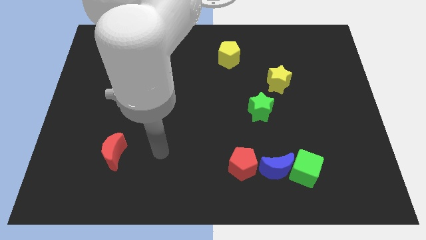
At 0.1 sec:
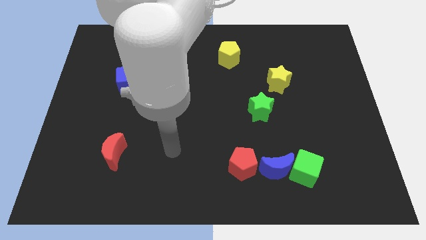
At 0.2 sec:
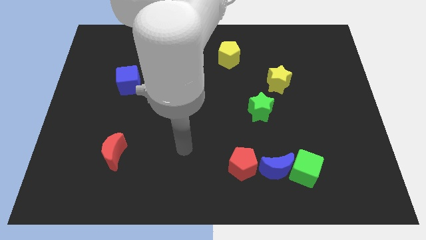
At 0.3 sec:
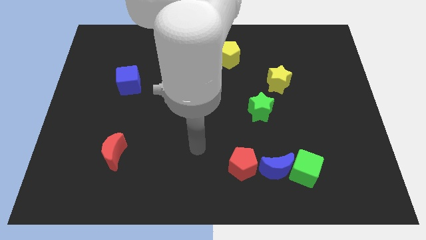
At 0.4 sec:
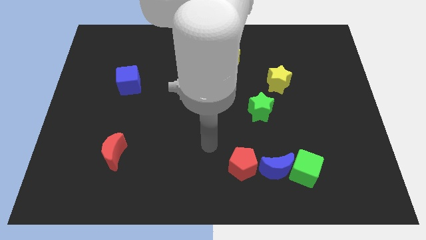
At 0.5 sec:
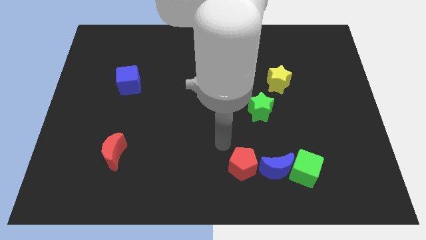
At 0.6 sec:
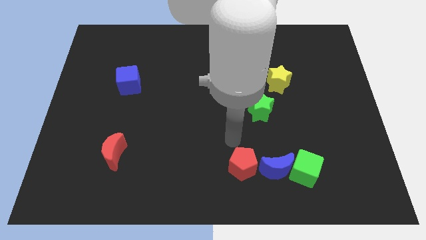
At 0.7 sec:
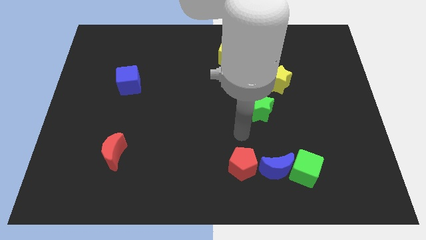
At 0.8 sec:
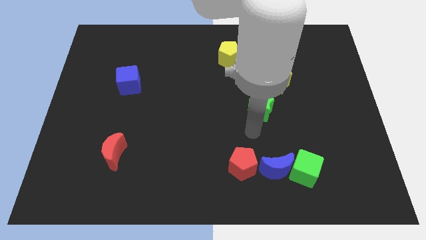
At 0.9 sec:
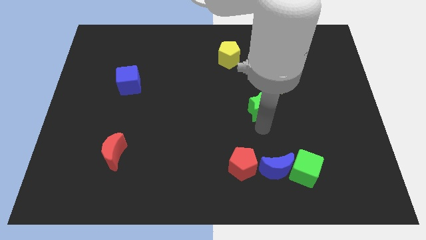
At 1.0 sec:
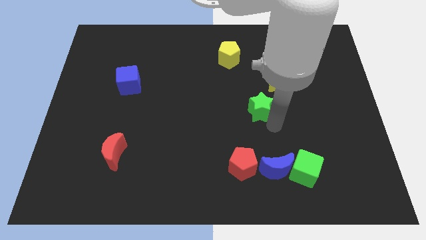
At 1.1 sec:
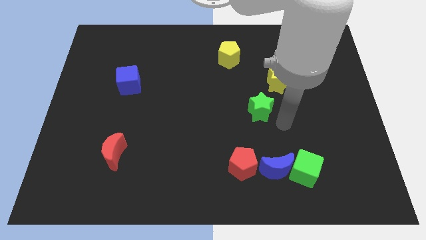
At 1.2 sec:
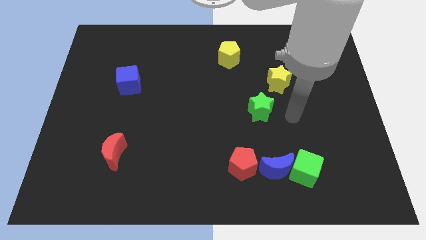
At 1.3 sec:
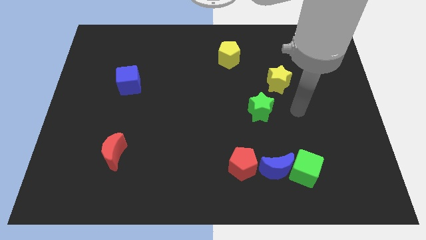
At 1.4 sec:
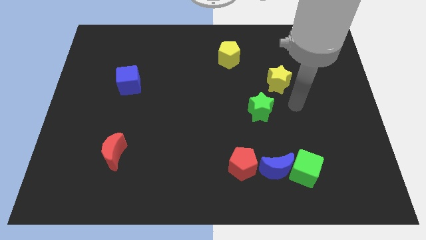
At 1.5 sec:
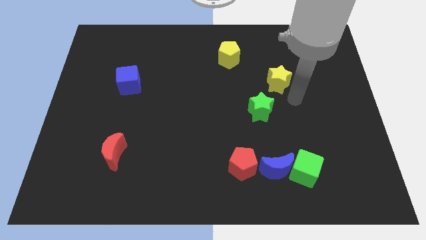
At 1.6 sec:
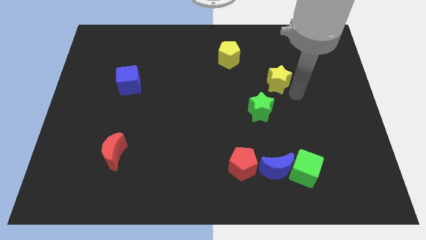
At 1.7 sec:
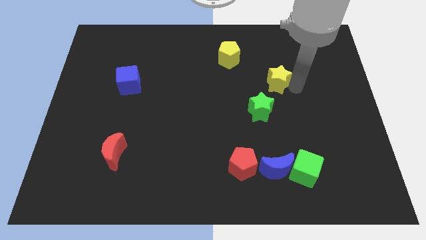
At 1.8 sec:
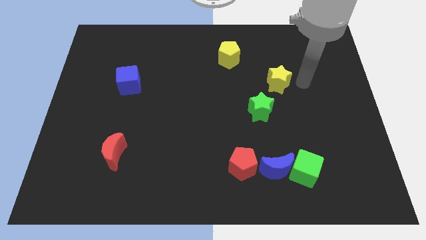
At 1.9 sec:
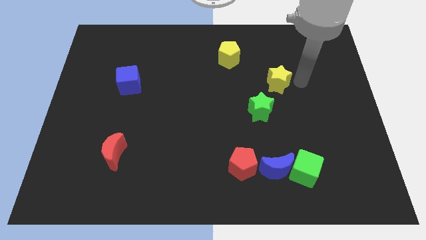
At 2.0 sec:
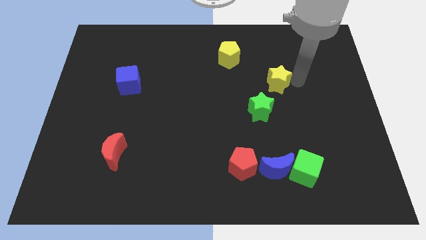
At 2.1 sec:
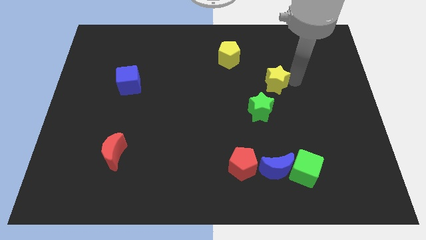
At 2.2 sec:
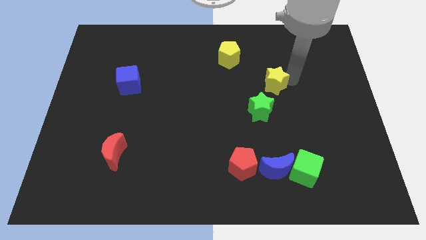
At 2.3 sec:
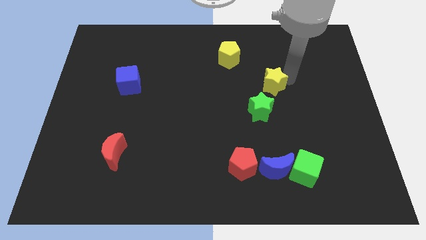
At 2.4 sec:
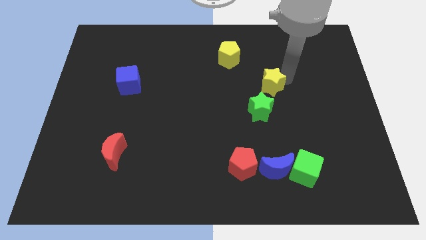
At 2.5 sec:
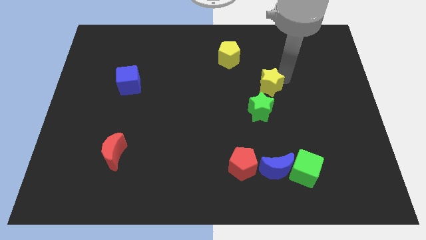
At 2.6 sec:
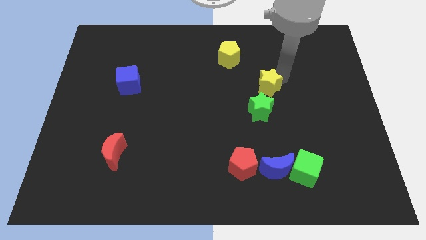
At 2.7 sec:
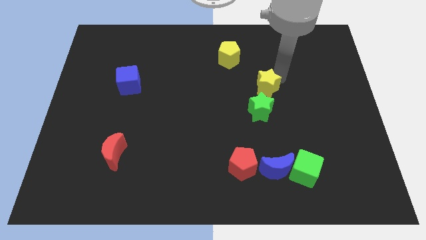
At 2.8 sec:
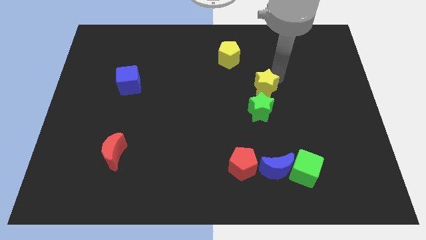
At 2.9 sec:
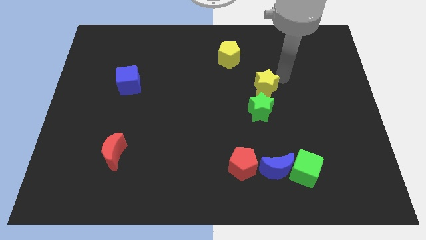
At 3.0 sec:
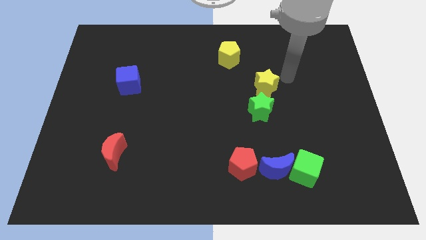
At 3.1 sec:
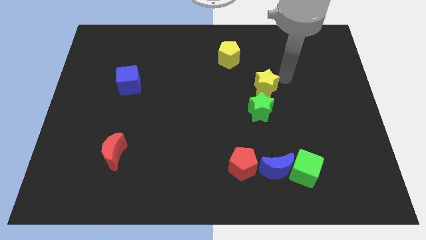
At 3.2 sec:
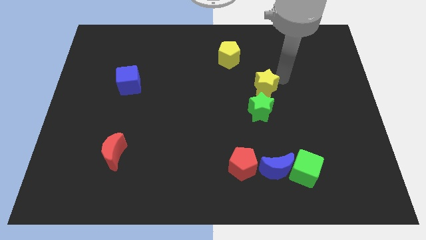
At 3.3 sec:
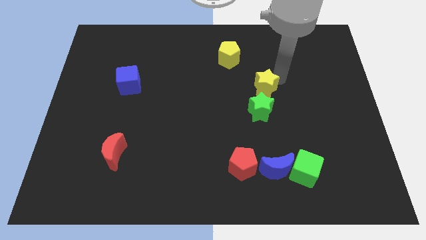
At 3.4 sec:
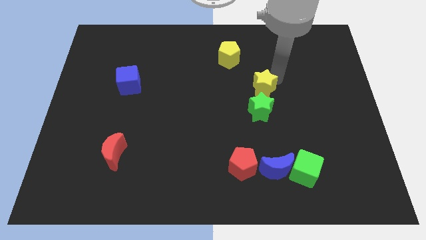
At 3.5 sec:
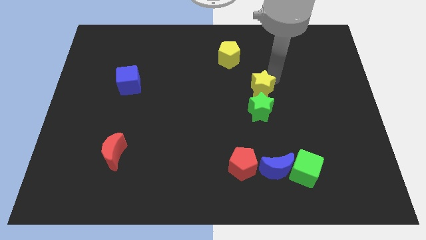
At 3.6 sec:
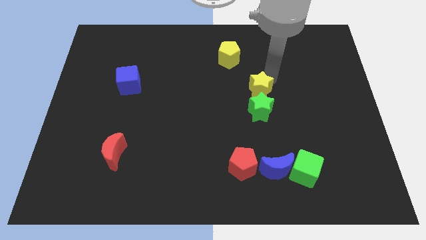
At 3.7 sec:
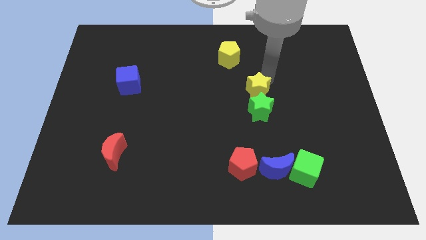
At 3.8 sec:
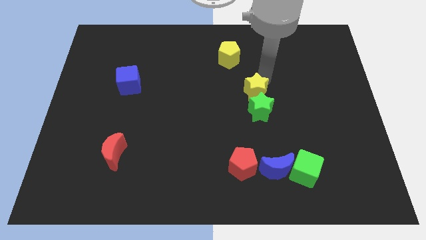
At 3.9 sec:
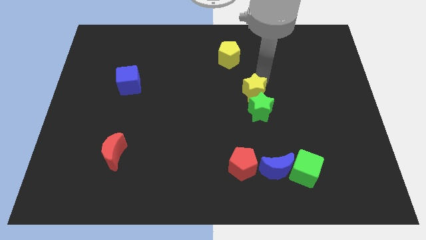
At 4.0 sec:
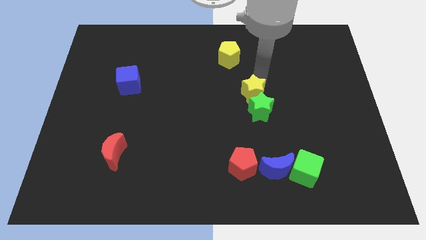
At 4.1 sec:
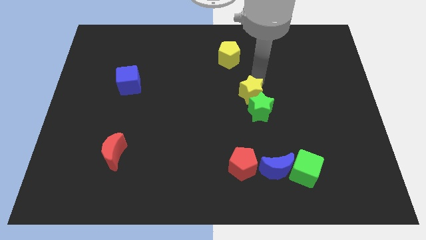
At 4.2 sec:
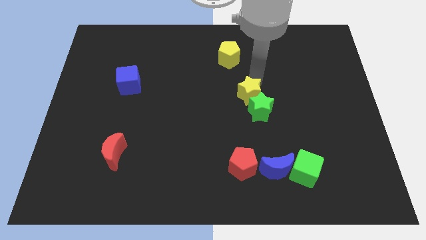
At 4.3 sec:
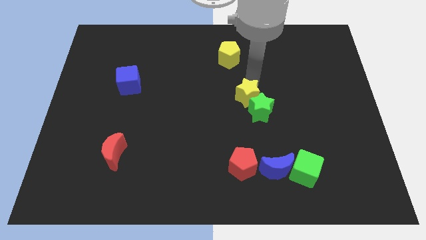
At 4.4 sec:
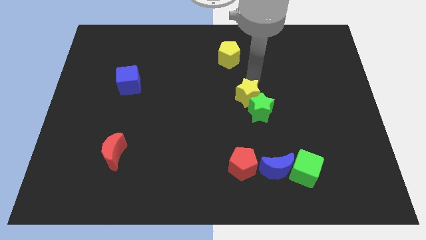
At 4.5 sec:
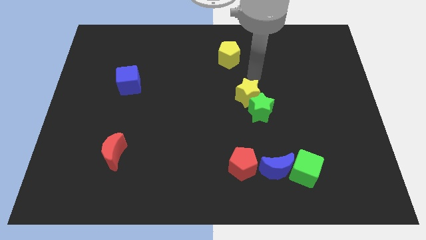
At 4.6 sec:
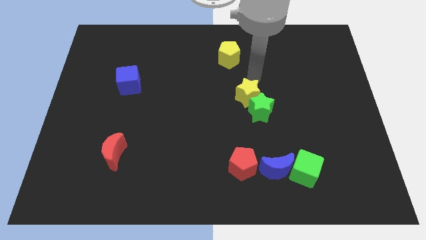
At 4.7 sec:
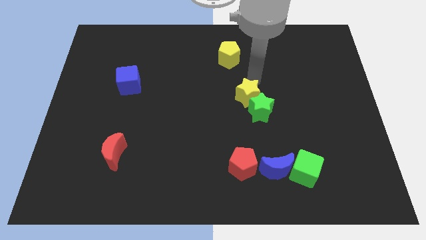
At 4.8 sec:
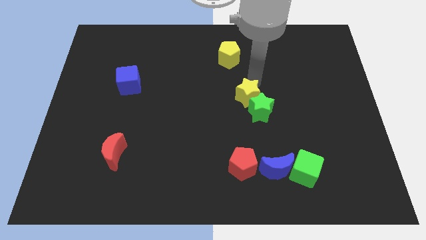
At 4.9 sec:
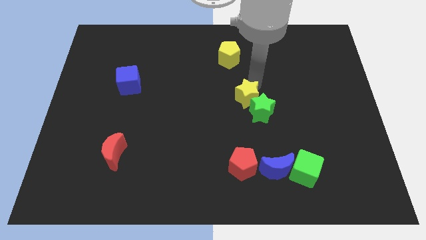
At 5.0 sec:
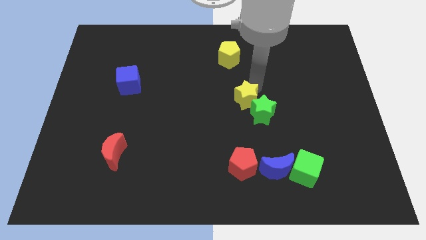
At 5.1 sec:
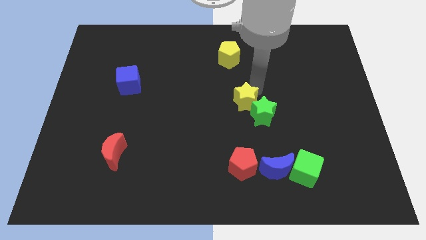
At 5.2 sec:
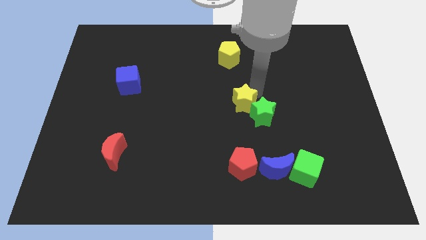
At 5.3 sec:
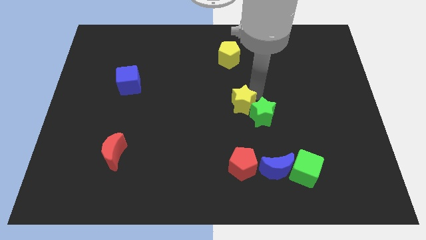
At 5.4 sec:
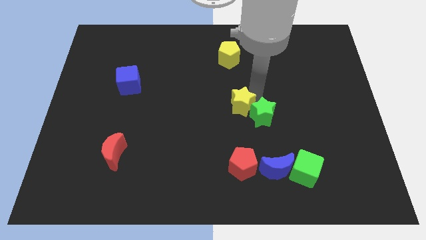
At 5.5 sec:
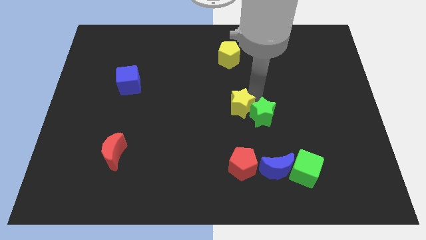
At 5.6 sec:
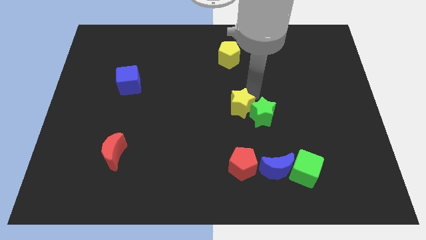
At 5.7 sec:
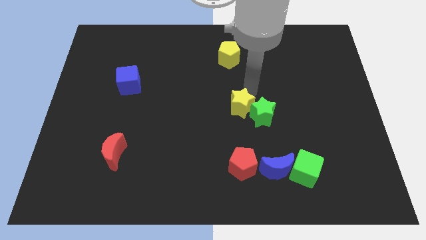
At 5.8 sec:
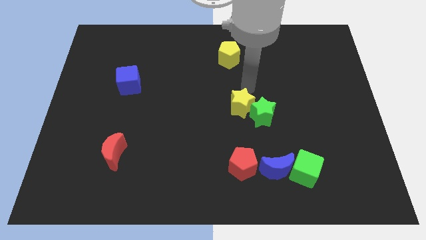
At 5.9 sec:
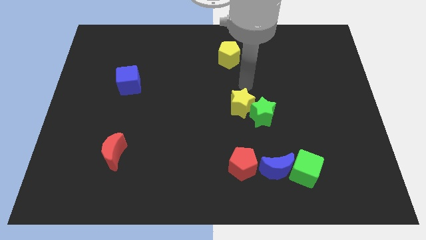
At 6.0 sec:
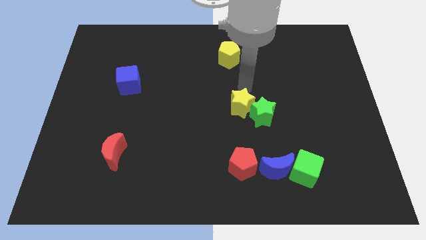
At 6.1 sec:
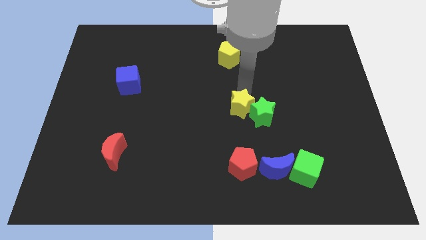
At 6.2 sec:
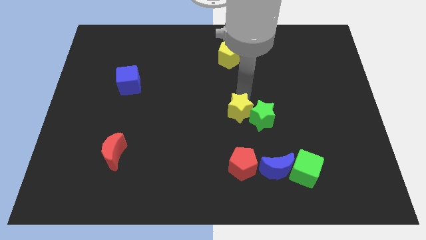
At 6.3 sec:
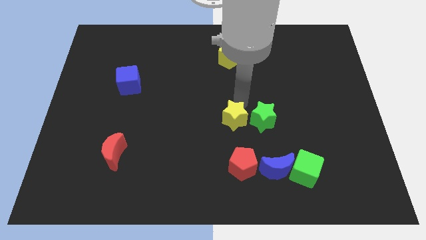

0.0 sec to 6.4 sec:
slide the yellow star to the bottom left side of the green star

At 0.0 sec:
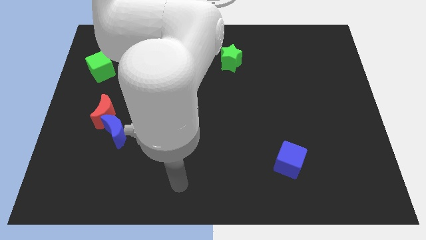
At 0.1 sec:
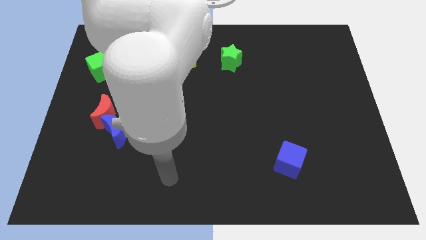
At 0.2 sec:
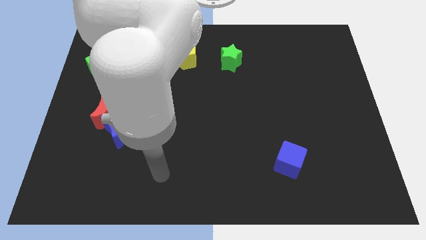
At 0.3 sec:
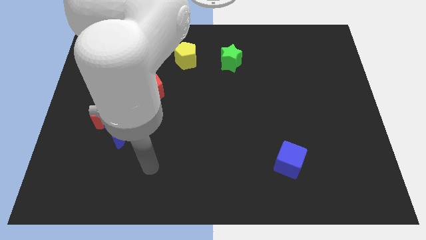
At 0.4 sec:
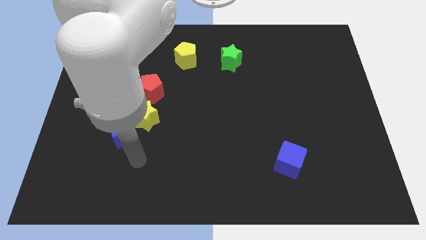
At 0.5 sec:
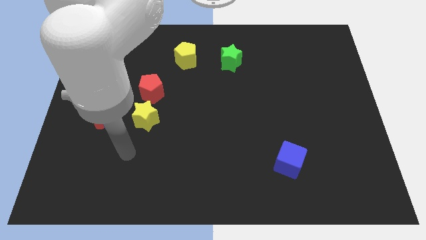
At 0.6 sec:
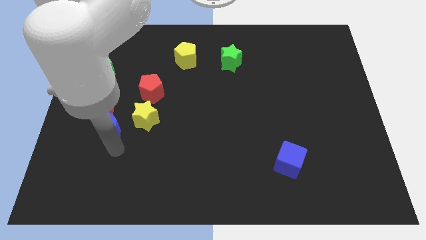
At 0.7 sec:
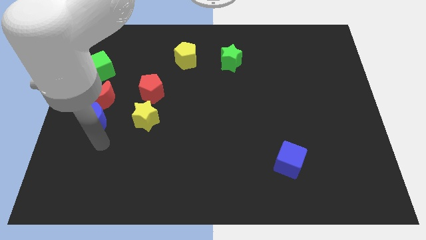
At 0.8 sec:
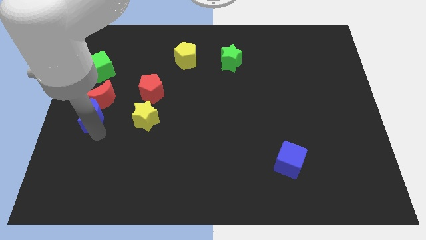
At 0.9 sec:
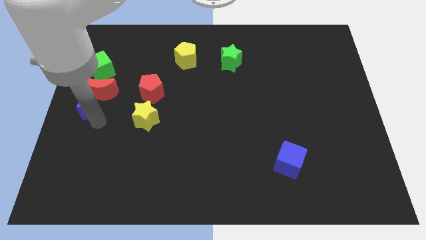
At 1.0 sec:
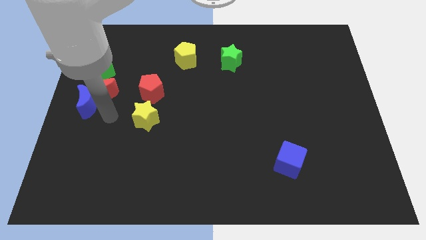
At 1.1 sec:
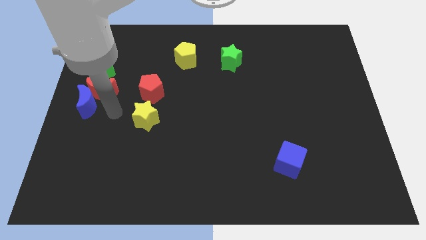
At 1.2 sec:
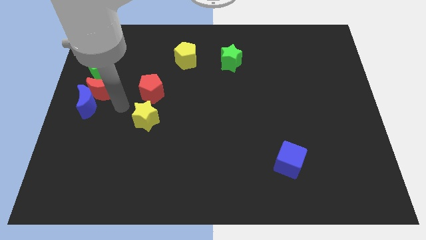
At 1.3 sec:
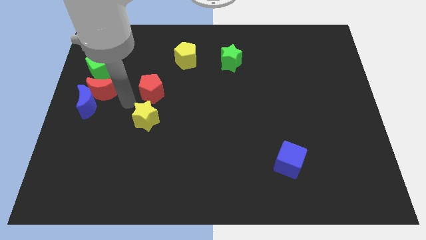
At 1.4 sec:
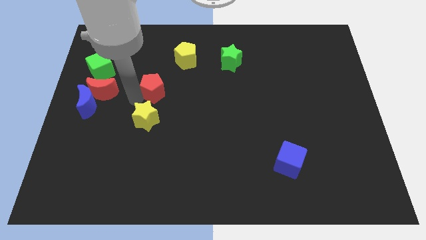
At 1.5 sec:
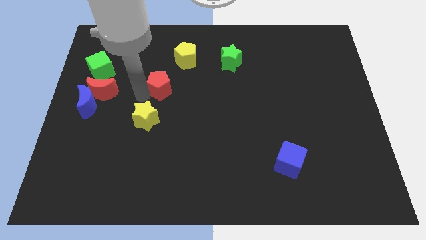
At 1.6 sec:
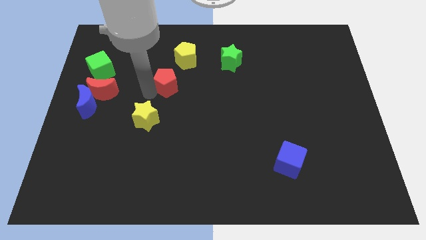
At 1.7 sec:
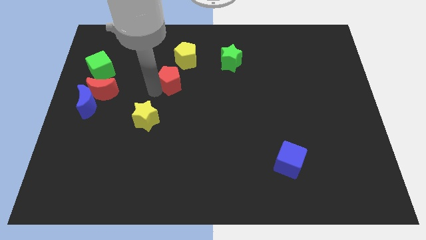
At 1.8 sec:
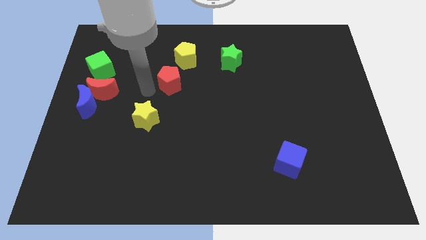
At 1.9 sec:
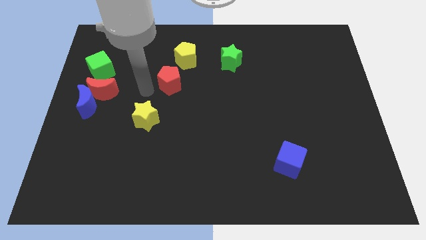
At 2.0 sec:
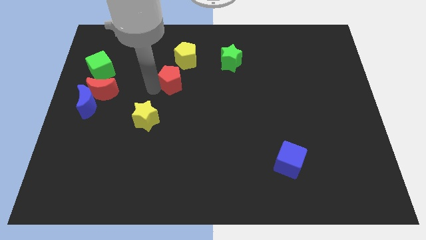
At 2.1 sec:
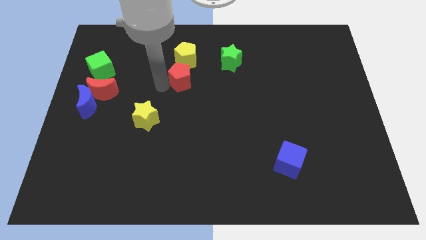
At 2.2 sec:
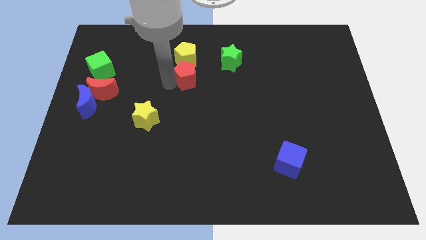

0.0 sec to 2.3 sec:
put the red pentagon to the bottom right of the yellow pentagon
